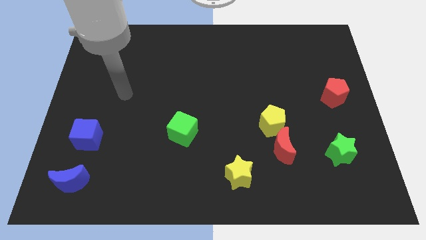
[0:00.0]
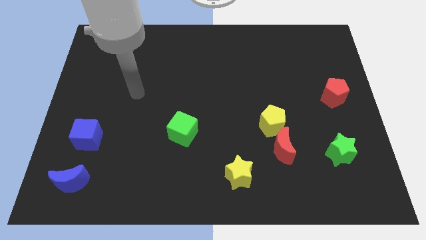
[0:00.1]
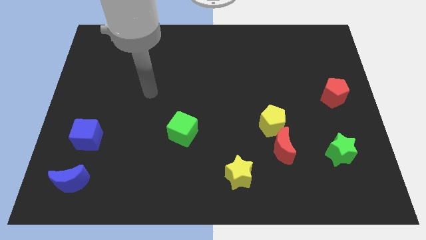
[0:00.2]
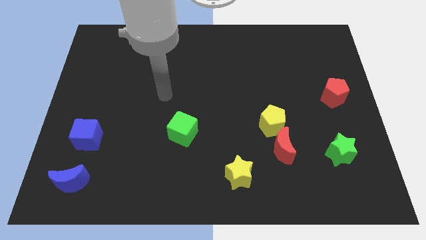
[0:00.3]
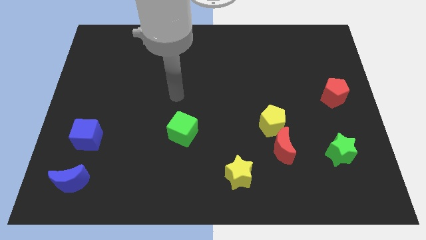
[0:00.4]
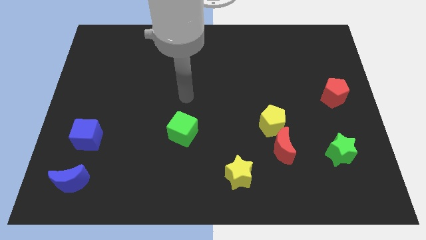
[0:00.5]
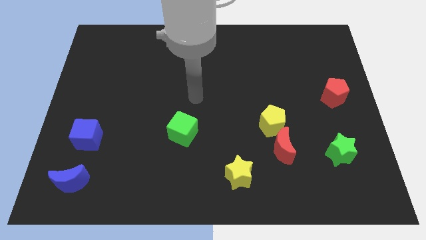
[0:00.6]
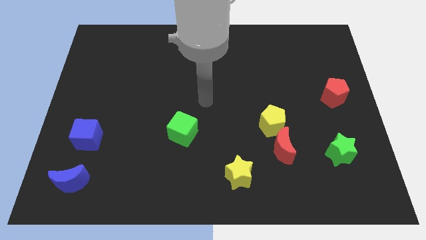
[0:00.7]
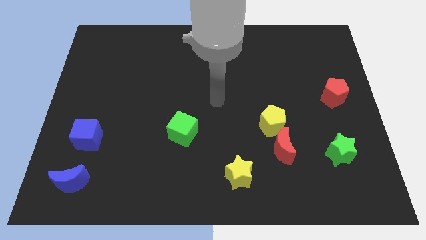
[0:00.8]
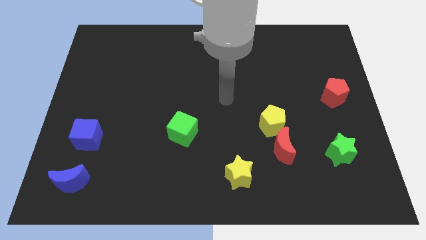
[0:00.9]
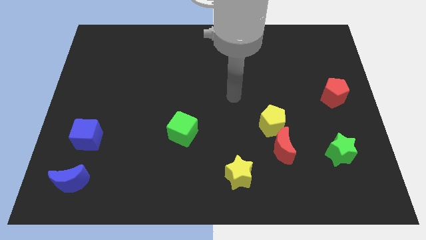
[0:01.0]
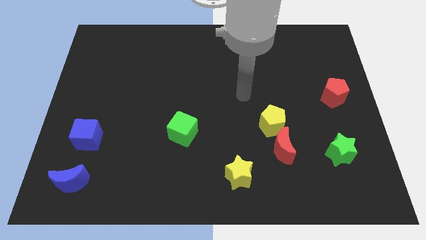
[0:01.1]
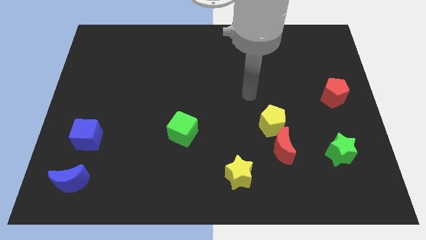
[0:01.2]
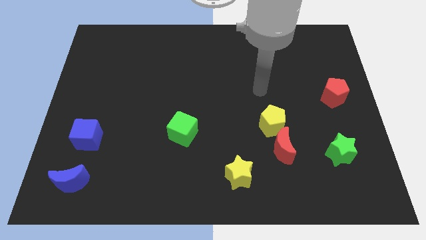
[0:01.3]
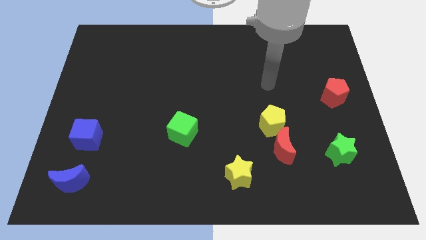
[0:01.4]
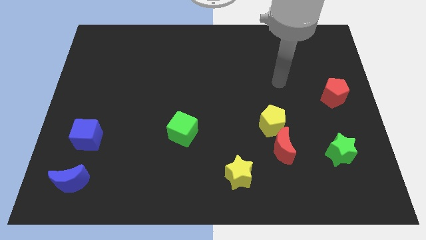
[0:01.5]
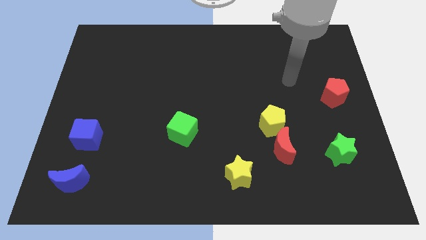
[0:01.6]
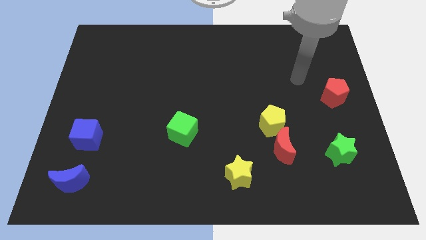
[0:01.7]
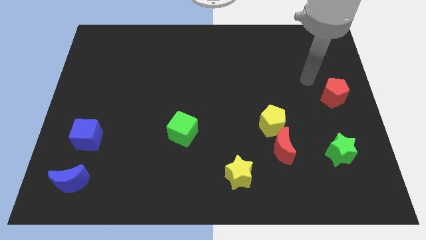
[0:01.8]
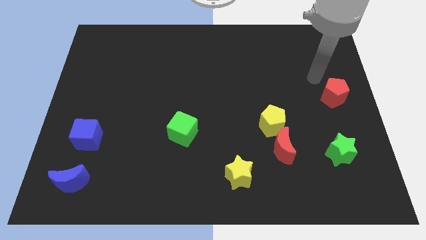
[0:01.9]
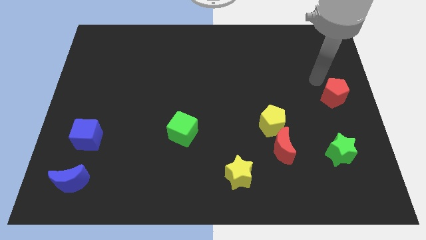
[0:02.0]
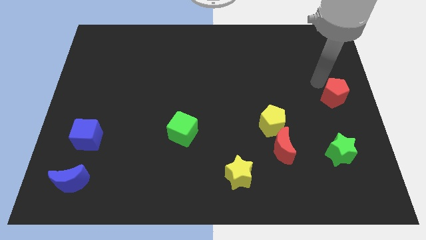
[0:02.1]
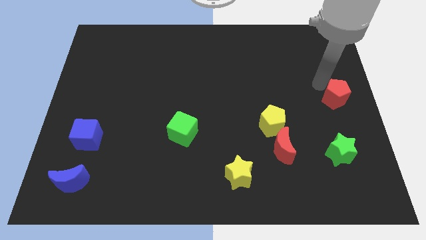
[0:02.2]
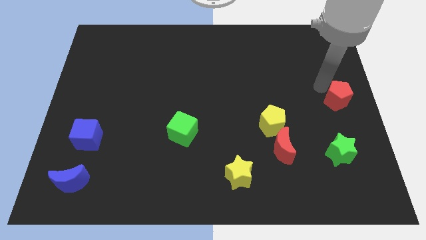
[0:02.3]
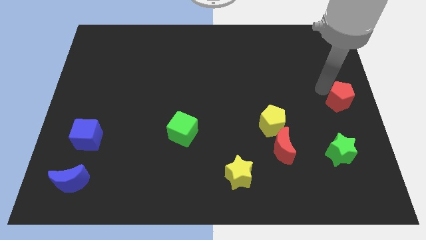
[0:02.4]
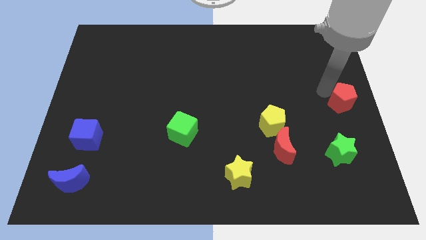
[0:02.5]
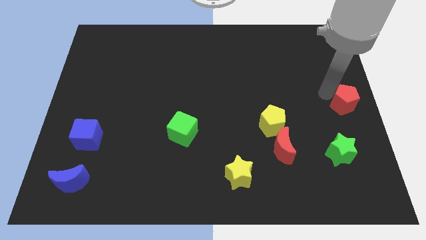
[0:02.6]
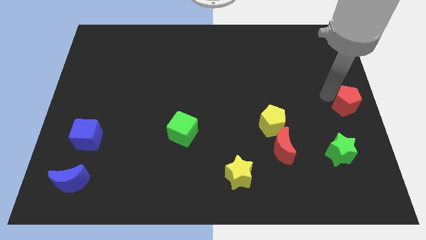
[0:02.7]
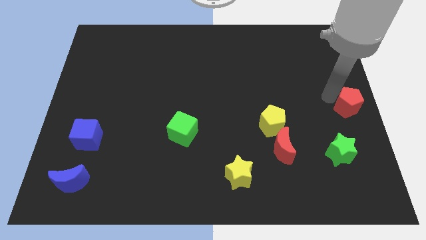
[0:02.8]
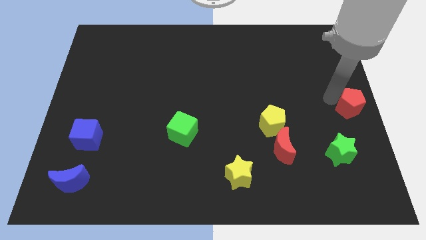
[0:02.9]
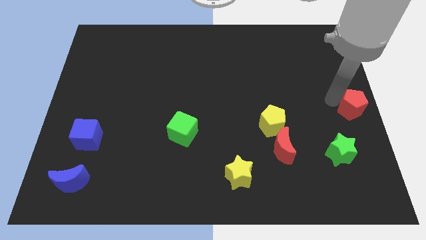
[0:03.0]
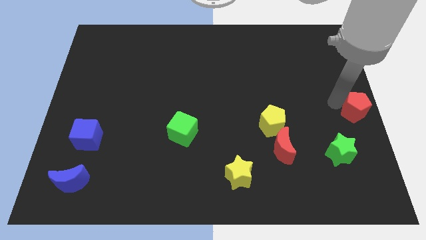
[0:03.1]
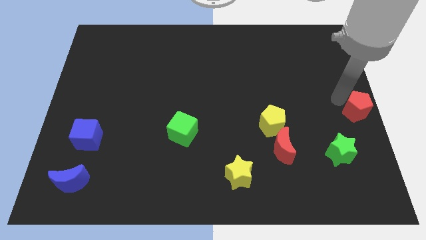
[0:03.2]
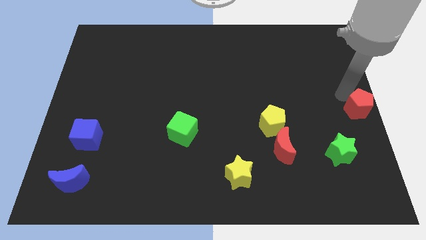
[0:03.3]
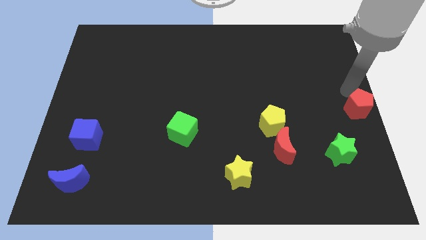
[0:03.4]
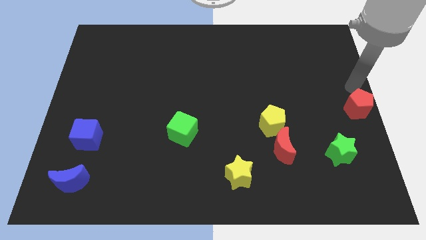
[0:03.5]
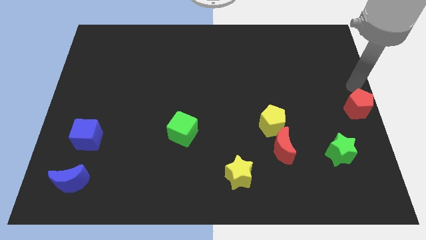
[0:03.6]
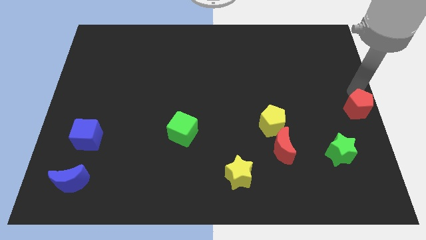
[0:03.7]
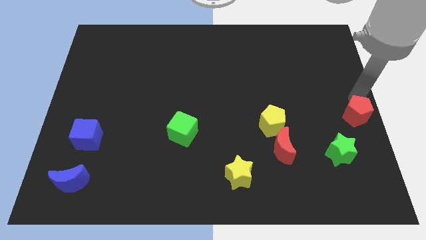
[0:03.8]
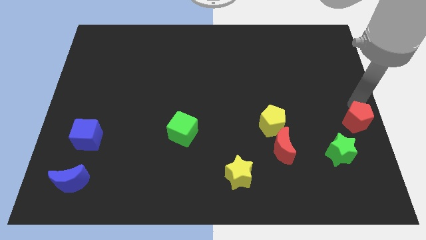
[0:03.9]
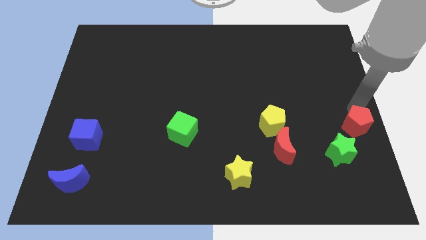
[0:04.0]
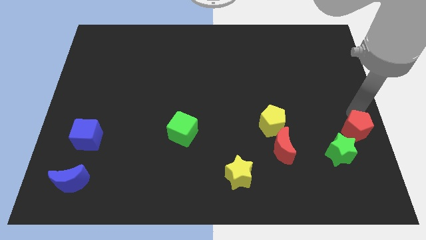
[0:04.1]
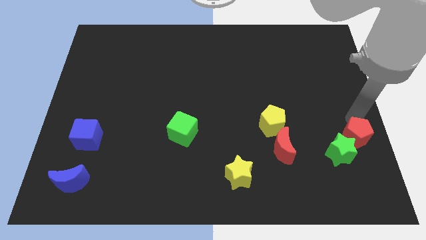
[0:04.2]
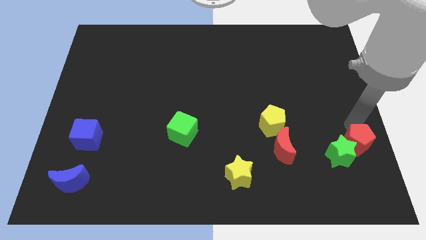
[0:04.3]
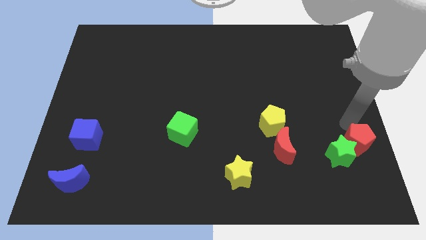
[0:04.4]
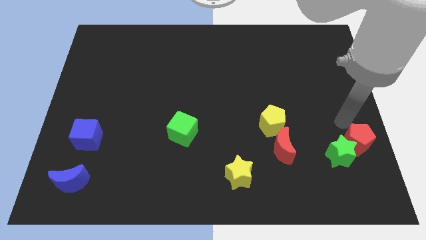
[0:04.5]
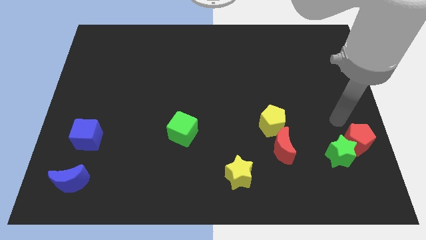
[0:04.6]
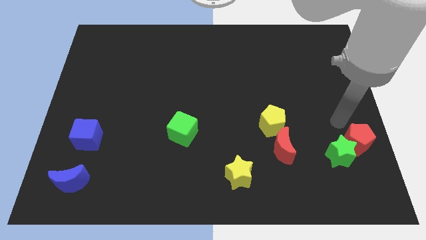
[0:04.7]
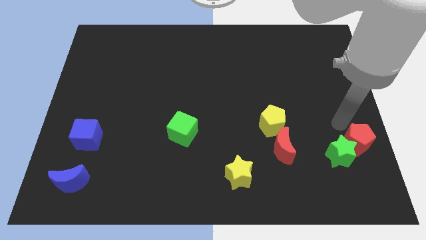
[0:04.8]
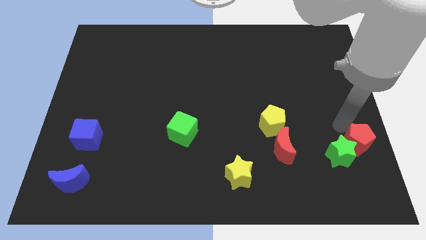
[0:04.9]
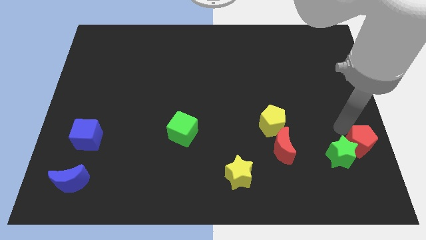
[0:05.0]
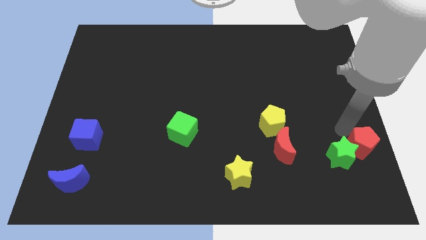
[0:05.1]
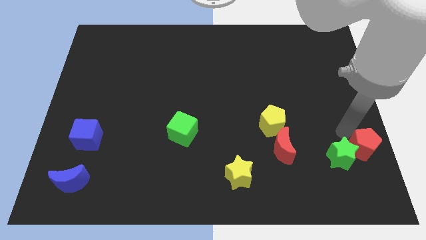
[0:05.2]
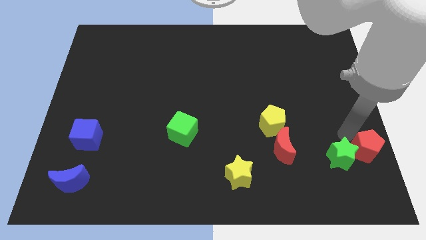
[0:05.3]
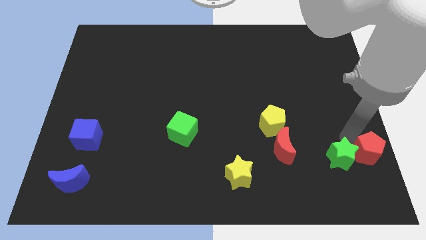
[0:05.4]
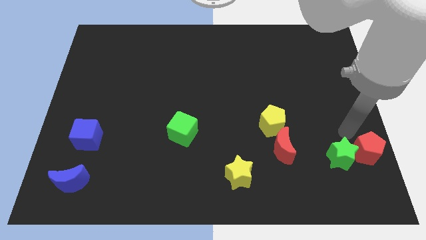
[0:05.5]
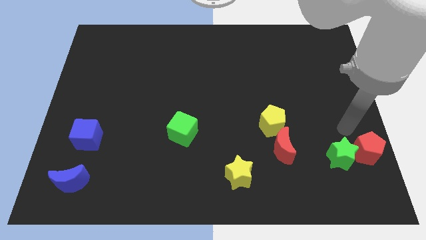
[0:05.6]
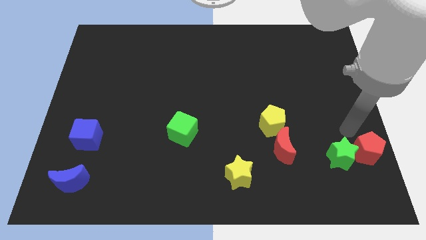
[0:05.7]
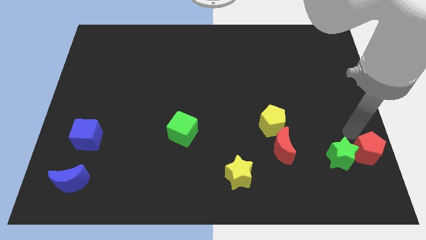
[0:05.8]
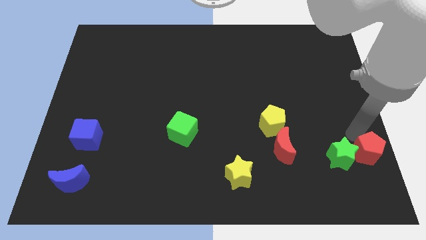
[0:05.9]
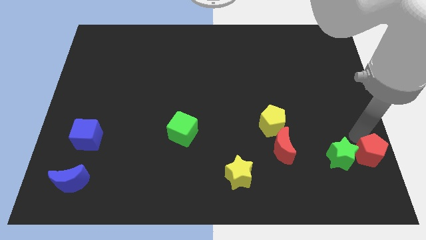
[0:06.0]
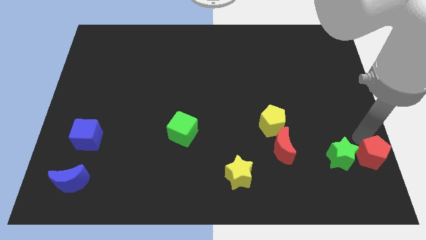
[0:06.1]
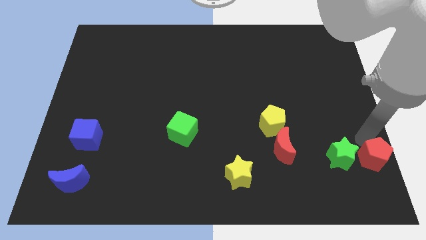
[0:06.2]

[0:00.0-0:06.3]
slide the red pentagon to the bottom right
